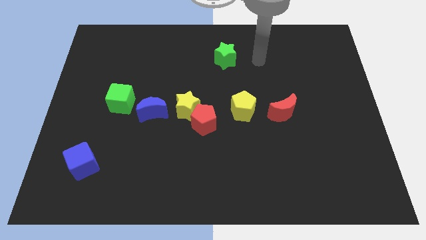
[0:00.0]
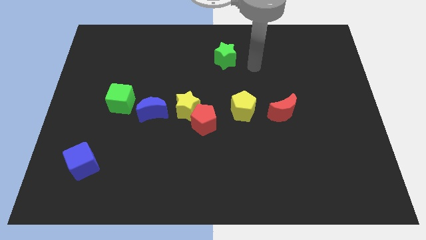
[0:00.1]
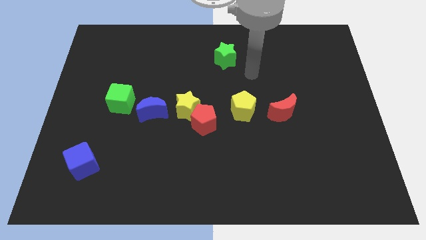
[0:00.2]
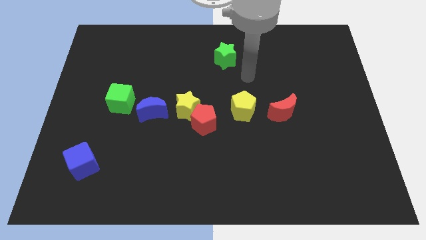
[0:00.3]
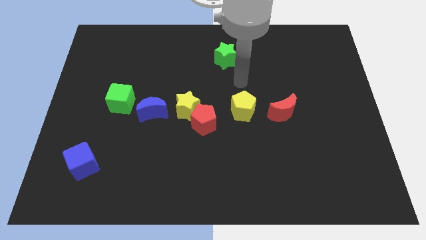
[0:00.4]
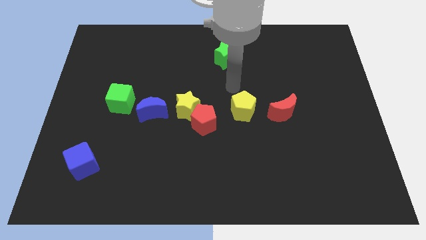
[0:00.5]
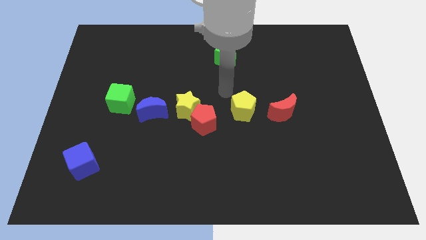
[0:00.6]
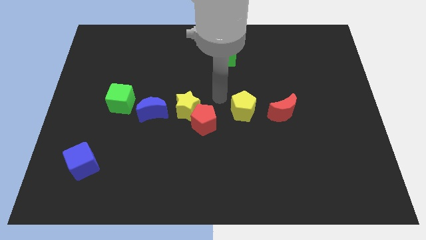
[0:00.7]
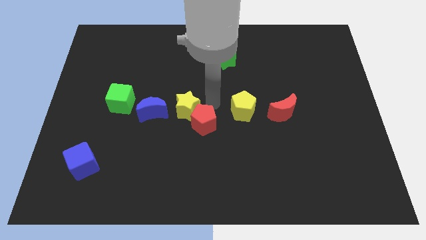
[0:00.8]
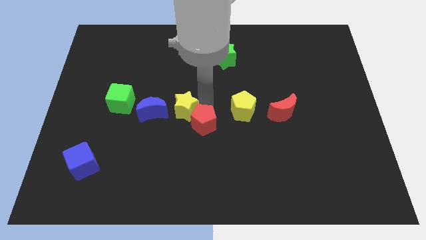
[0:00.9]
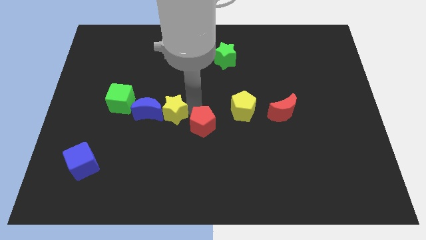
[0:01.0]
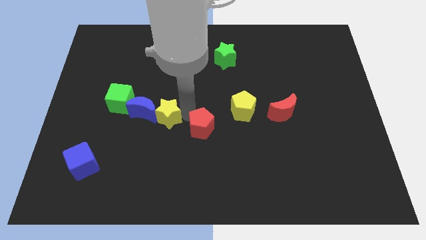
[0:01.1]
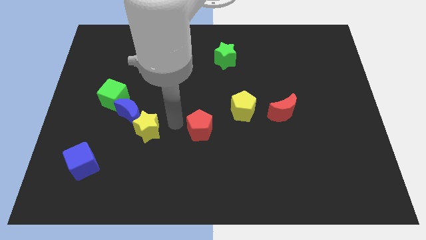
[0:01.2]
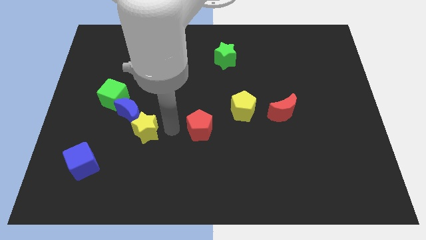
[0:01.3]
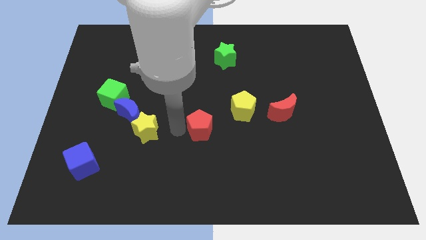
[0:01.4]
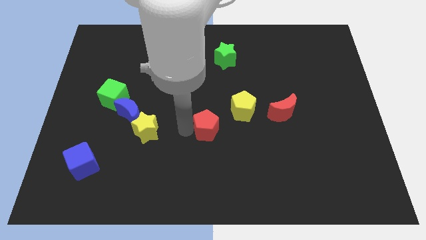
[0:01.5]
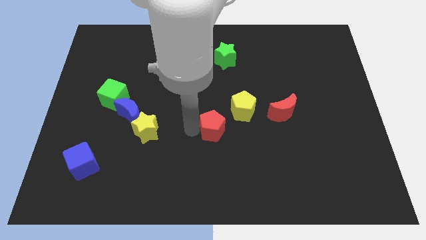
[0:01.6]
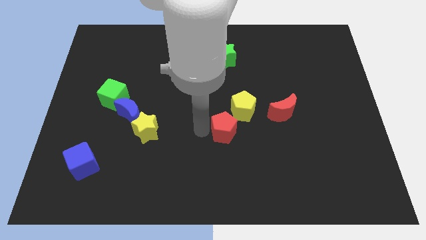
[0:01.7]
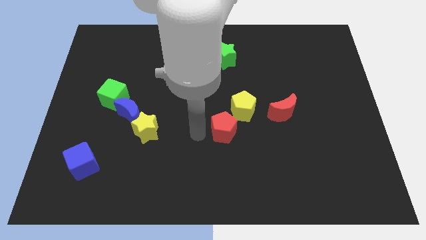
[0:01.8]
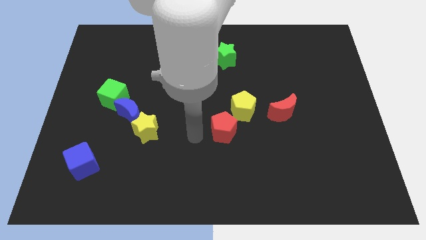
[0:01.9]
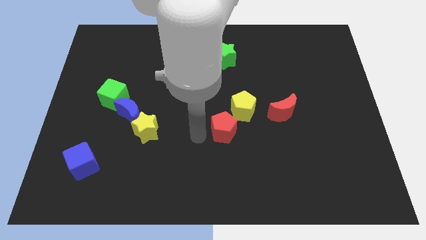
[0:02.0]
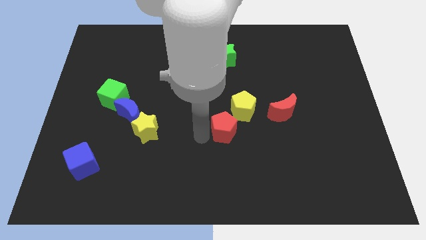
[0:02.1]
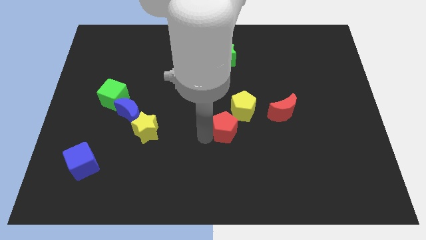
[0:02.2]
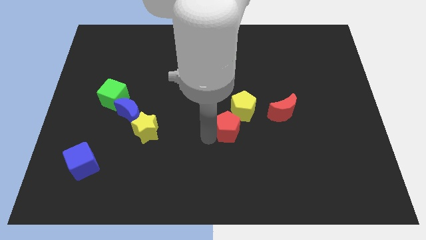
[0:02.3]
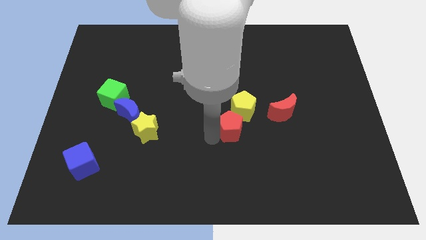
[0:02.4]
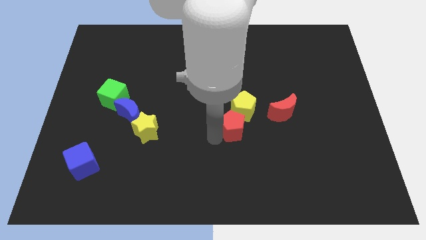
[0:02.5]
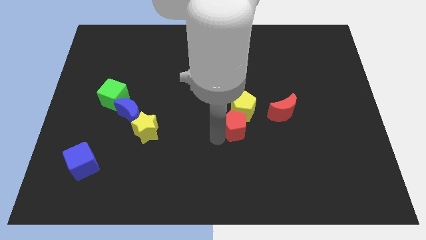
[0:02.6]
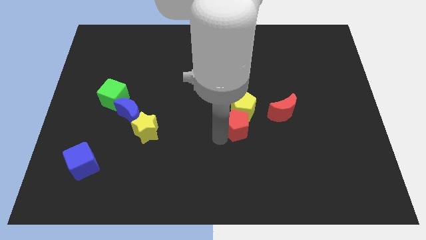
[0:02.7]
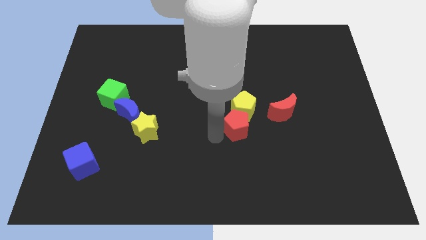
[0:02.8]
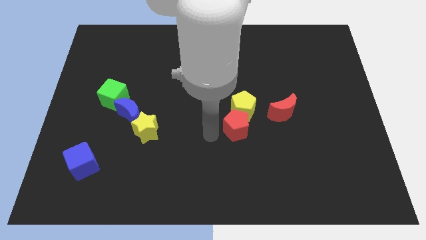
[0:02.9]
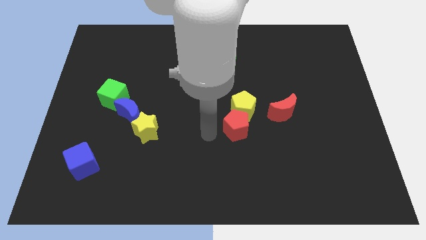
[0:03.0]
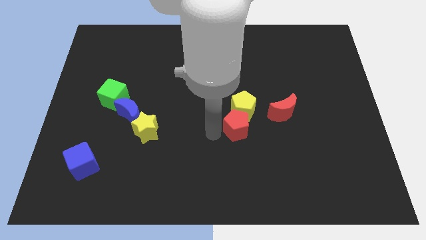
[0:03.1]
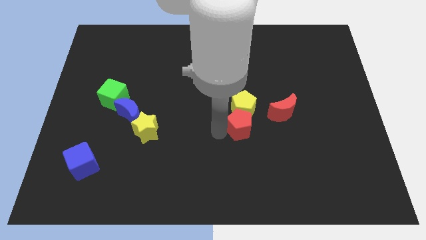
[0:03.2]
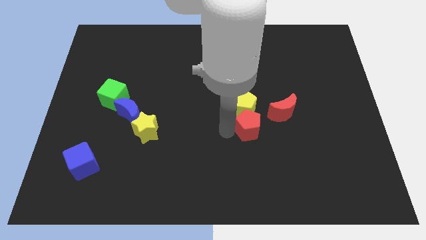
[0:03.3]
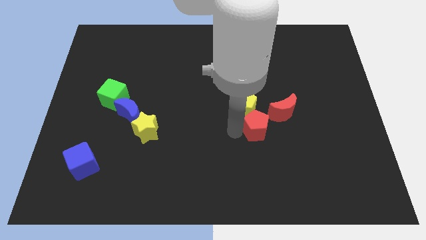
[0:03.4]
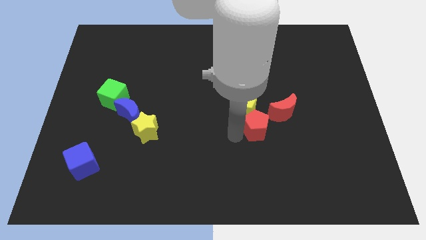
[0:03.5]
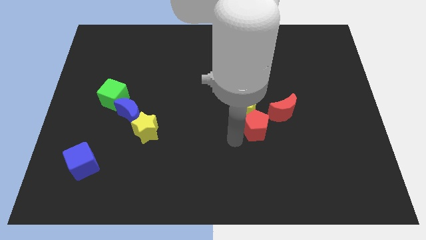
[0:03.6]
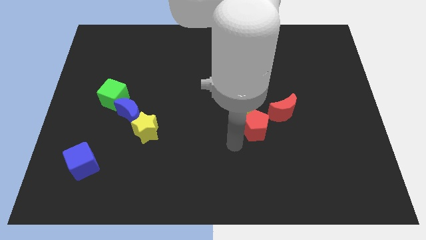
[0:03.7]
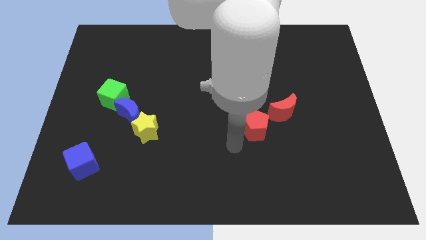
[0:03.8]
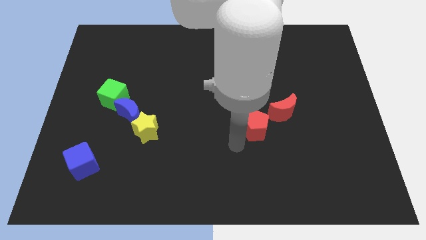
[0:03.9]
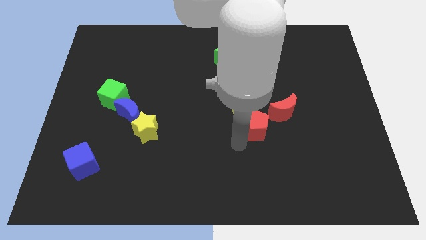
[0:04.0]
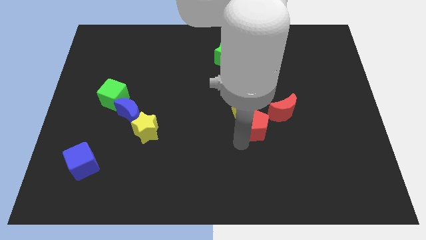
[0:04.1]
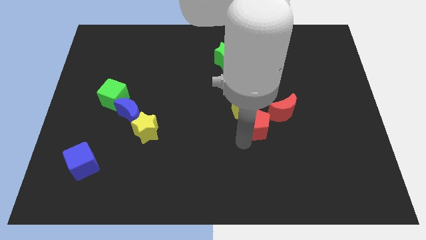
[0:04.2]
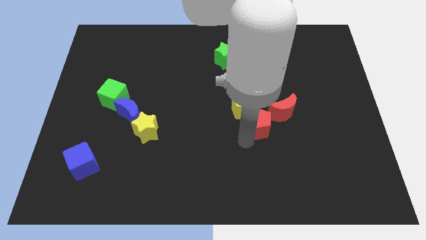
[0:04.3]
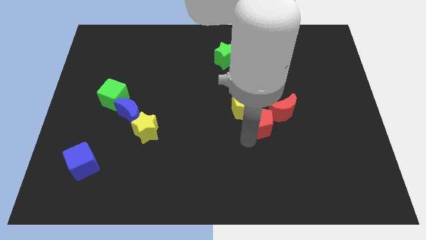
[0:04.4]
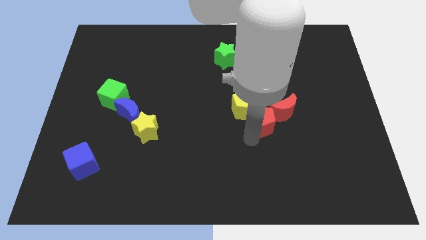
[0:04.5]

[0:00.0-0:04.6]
move the red pentagon towards the red moon

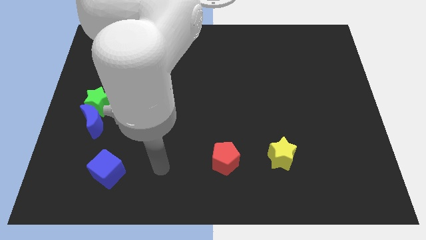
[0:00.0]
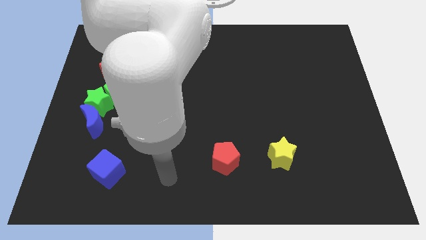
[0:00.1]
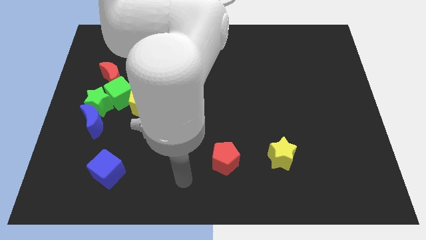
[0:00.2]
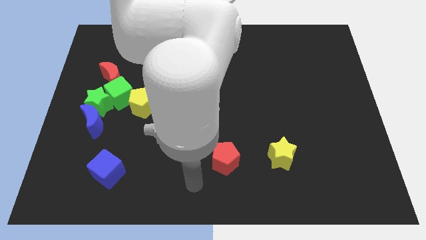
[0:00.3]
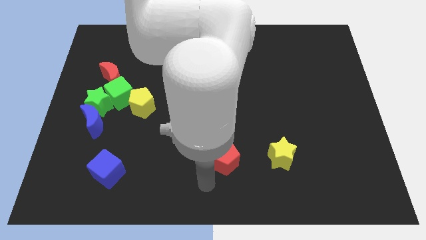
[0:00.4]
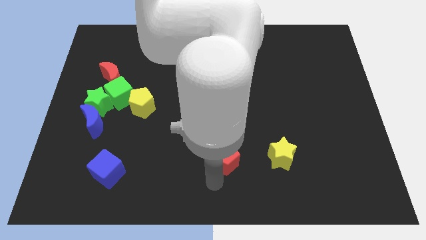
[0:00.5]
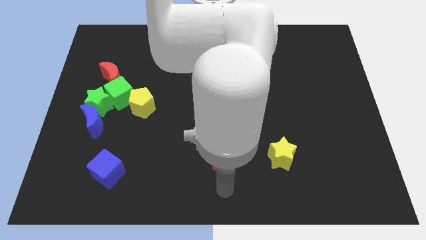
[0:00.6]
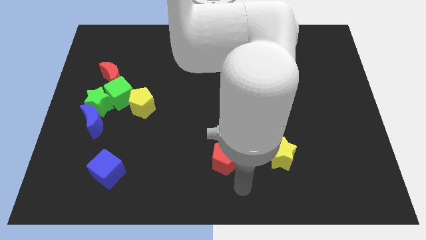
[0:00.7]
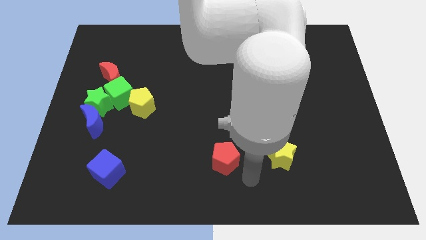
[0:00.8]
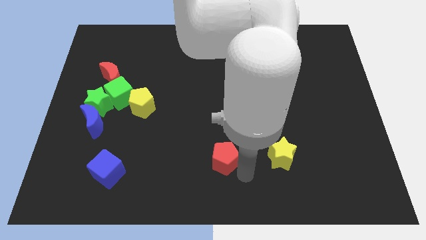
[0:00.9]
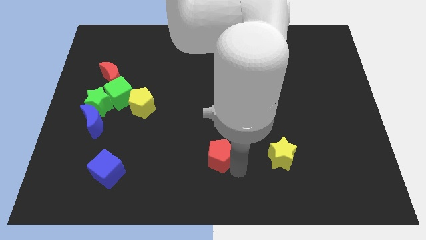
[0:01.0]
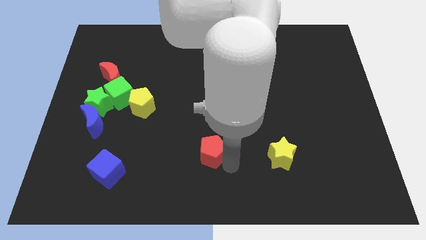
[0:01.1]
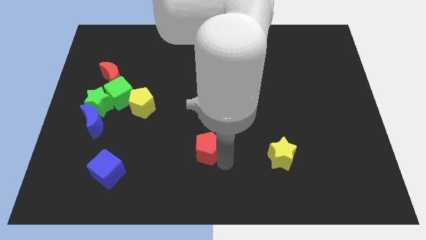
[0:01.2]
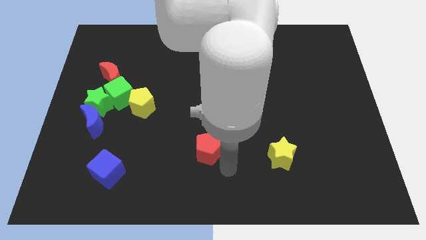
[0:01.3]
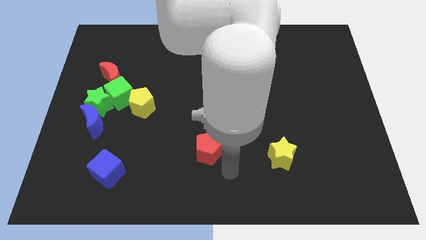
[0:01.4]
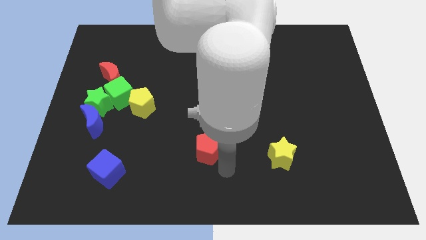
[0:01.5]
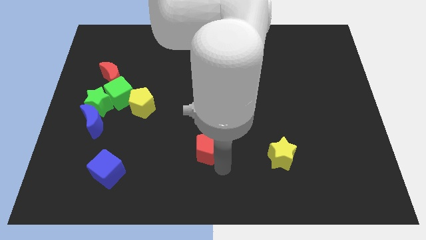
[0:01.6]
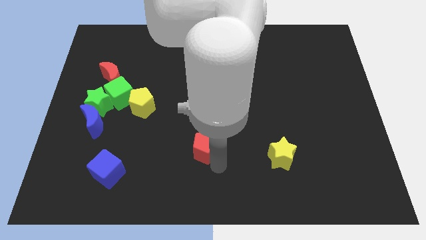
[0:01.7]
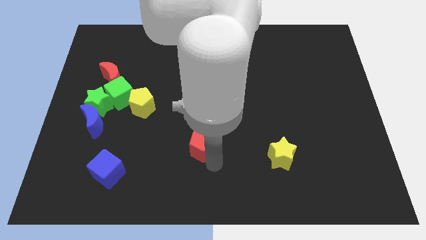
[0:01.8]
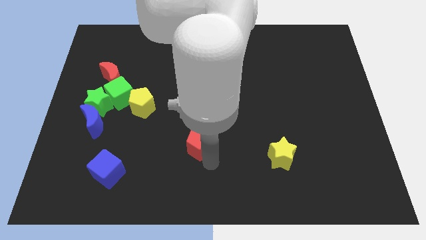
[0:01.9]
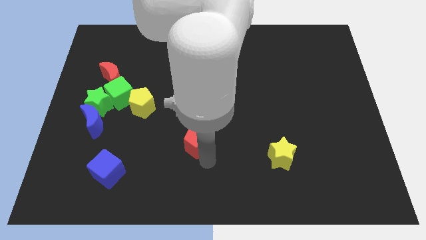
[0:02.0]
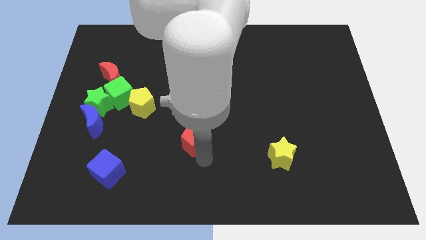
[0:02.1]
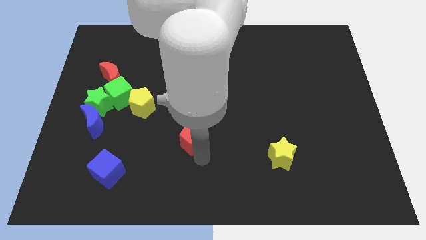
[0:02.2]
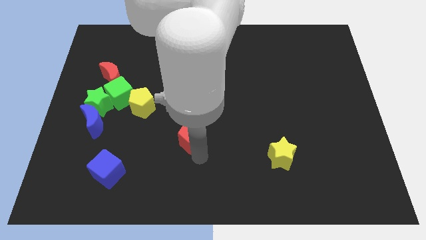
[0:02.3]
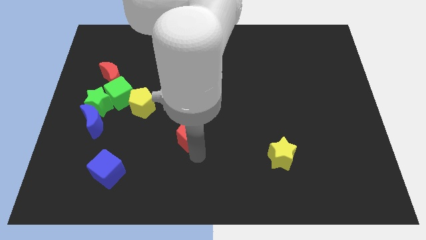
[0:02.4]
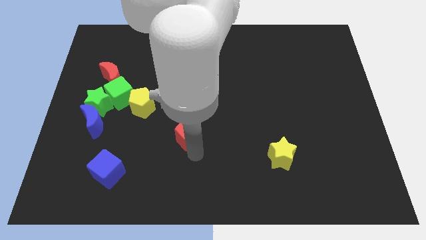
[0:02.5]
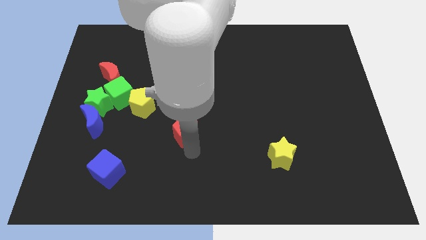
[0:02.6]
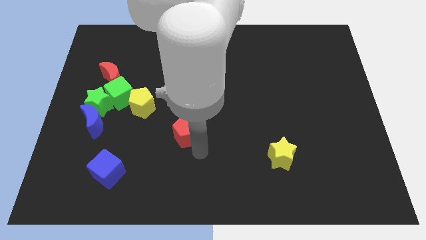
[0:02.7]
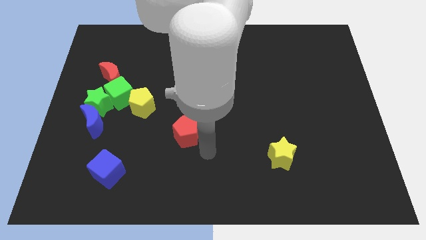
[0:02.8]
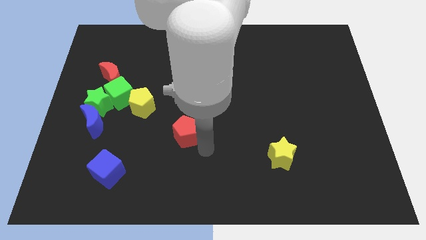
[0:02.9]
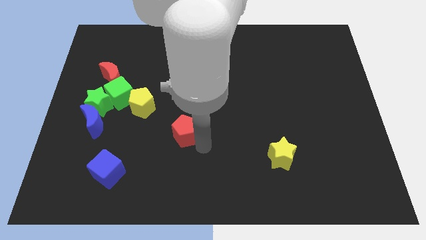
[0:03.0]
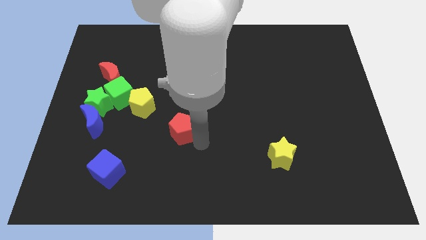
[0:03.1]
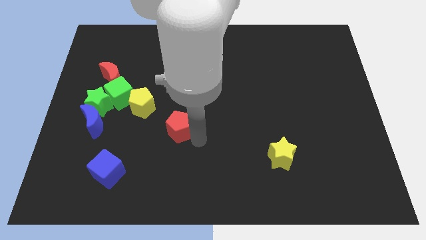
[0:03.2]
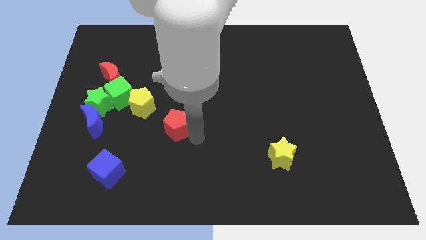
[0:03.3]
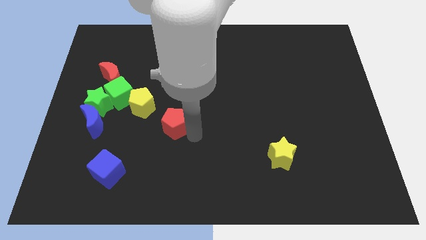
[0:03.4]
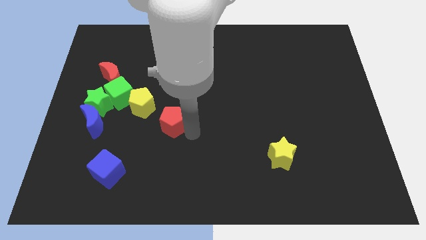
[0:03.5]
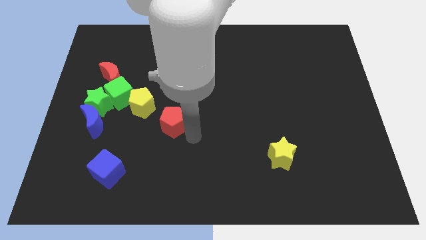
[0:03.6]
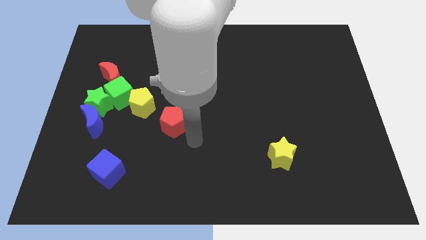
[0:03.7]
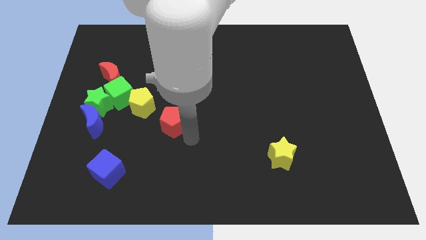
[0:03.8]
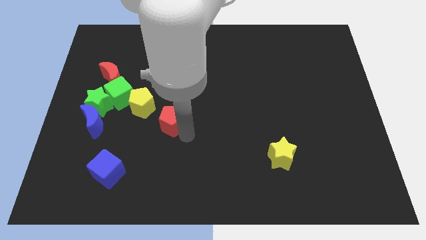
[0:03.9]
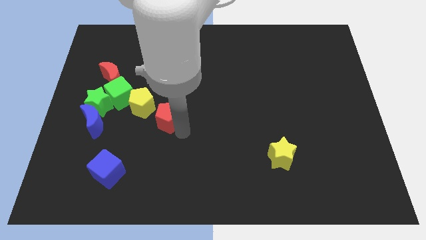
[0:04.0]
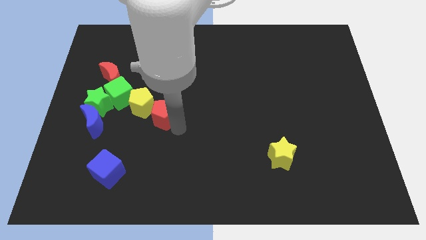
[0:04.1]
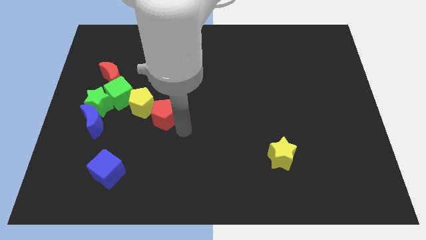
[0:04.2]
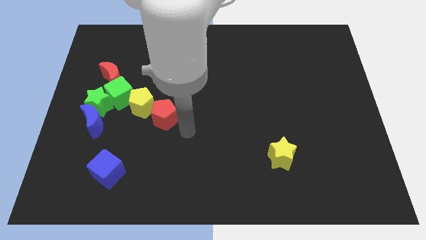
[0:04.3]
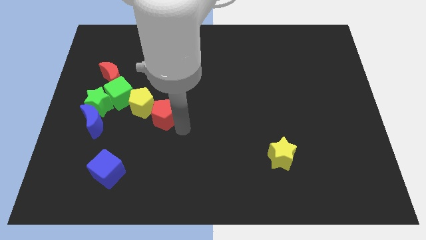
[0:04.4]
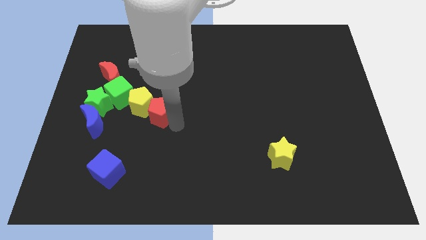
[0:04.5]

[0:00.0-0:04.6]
put the red pentagon next to the yellow pentagon
